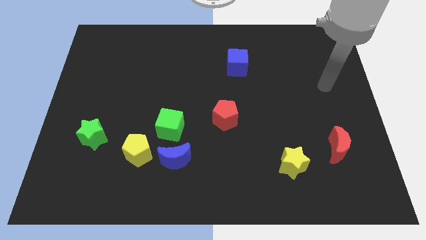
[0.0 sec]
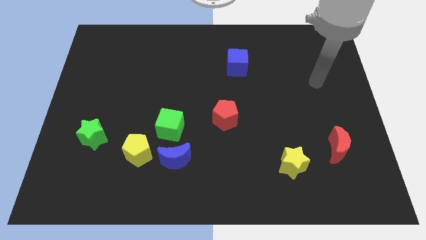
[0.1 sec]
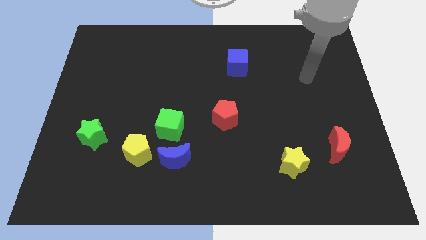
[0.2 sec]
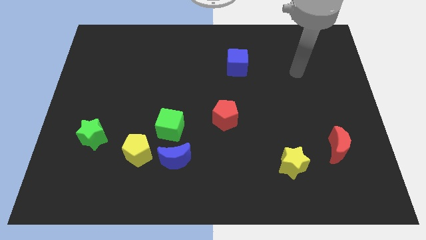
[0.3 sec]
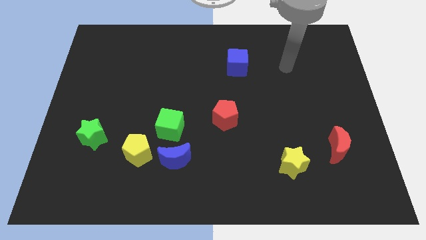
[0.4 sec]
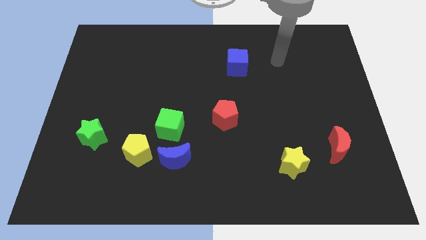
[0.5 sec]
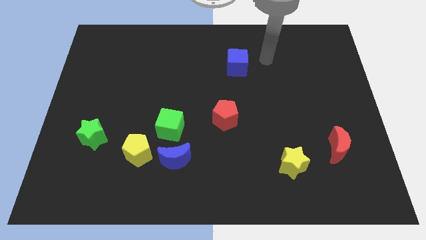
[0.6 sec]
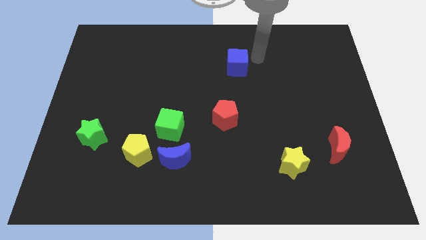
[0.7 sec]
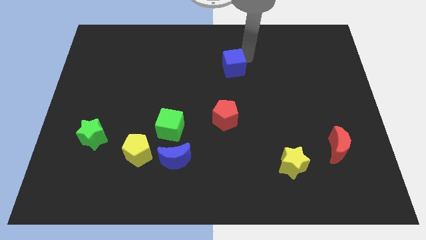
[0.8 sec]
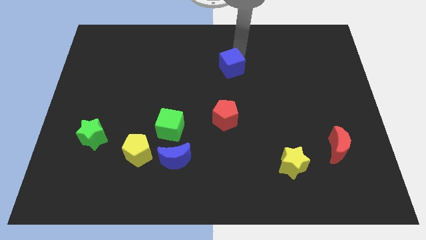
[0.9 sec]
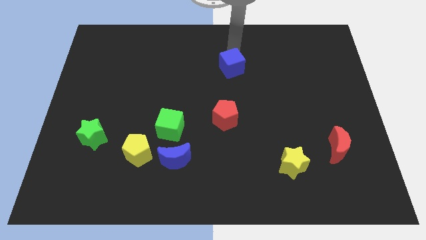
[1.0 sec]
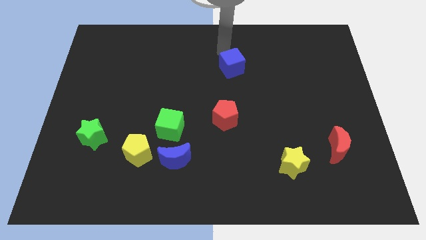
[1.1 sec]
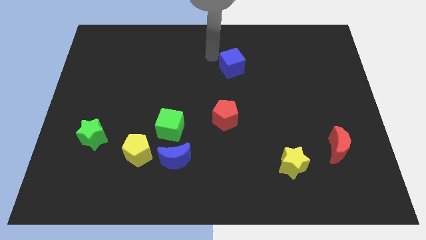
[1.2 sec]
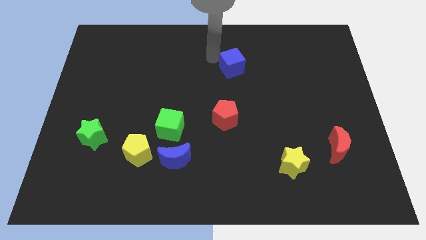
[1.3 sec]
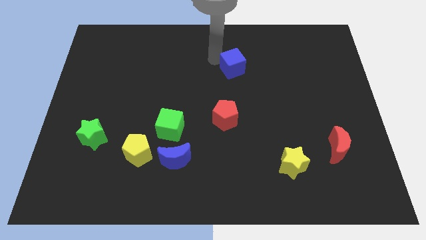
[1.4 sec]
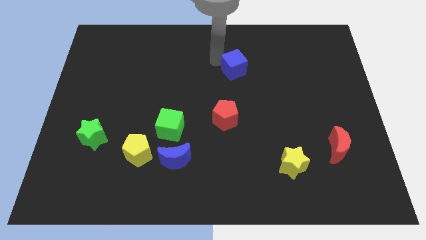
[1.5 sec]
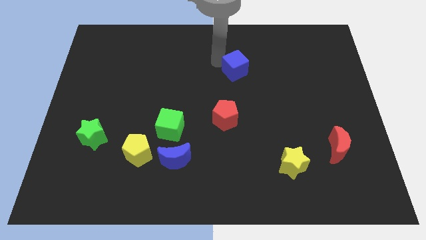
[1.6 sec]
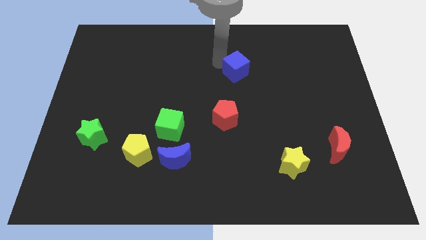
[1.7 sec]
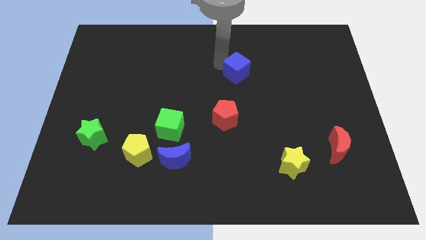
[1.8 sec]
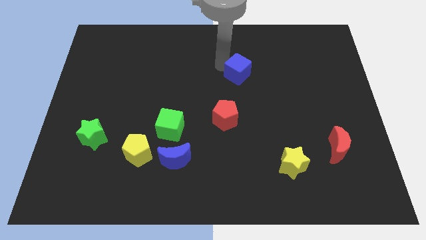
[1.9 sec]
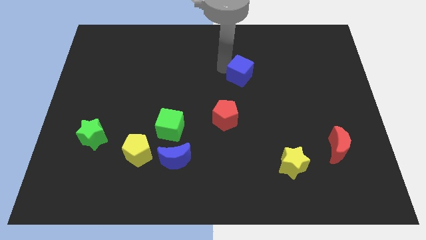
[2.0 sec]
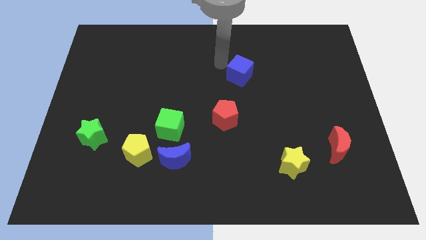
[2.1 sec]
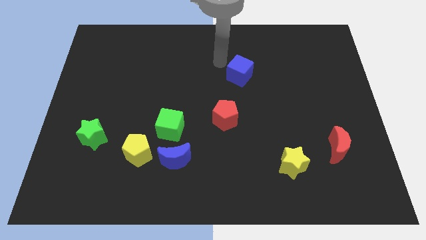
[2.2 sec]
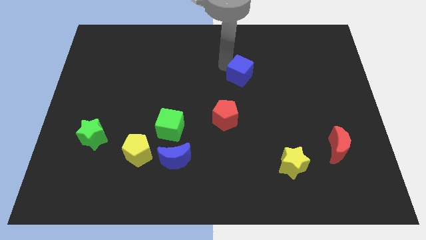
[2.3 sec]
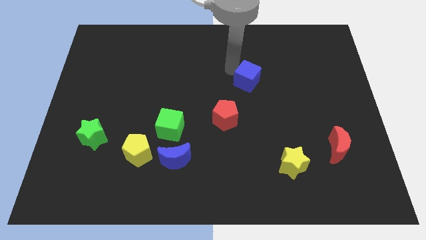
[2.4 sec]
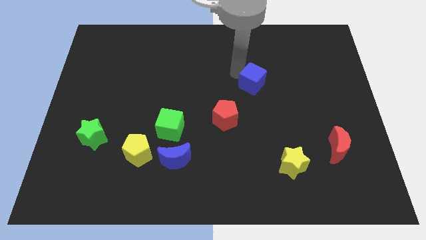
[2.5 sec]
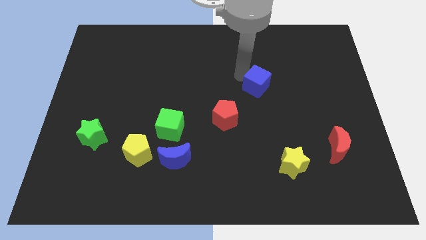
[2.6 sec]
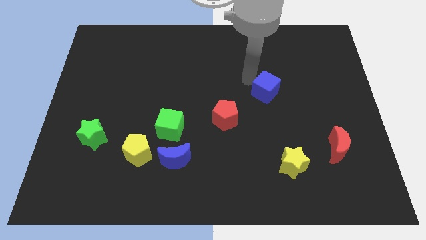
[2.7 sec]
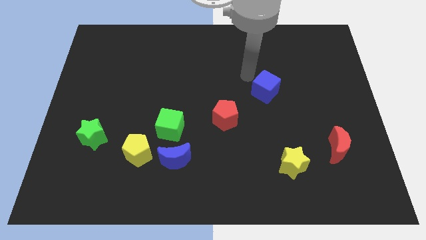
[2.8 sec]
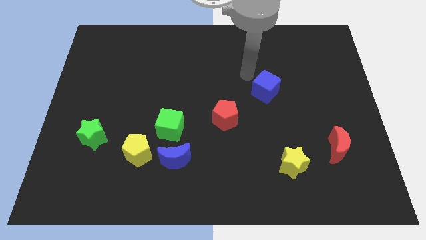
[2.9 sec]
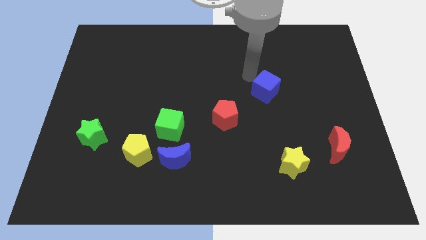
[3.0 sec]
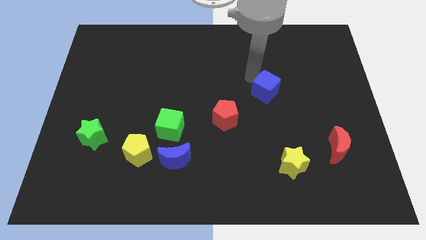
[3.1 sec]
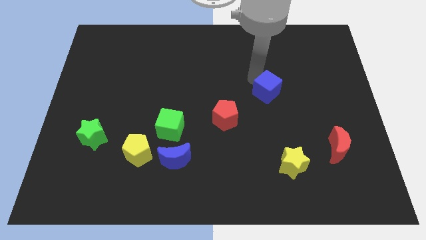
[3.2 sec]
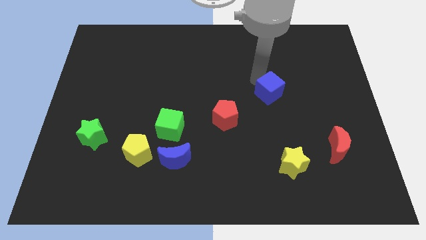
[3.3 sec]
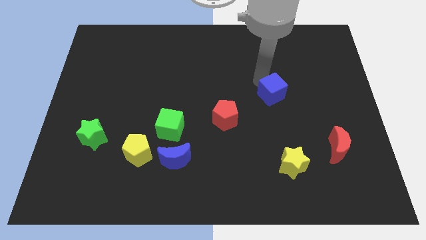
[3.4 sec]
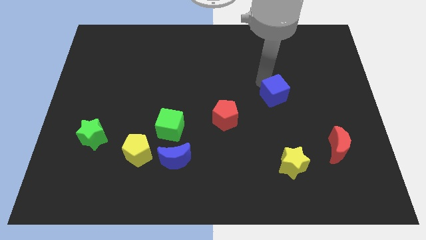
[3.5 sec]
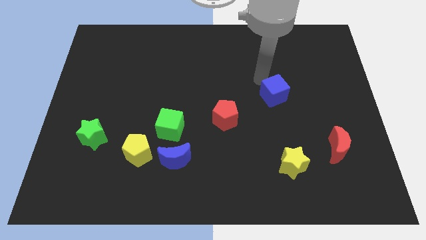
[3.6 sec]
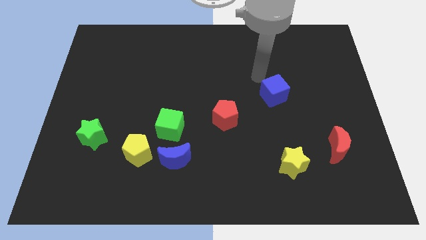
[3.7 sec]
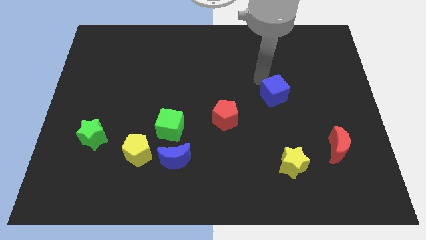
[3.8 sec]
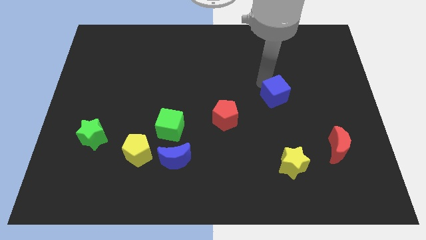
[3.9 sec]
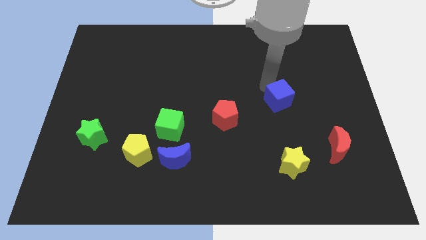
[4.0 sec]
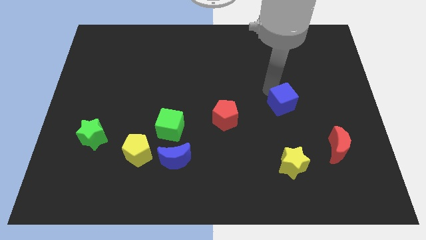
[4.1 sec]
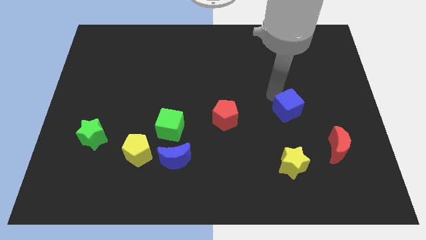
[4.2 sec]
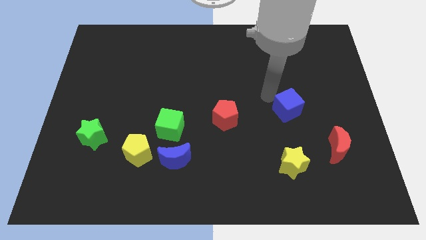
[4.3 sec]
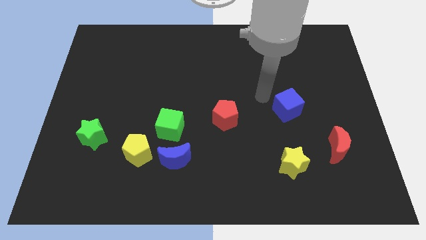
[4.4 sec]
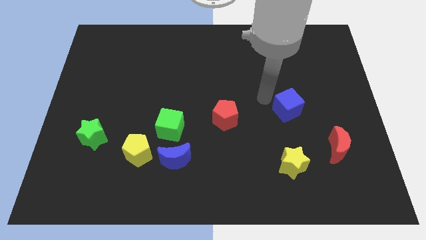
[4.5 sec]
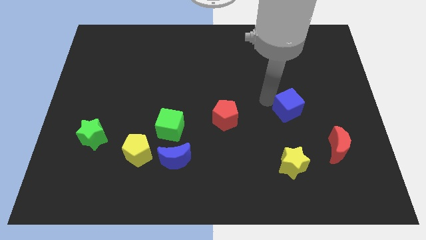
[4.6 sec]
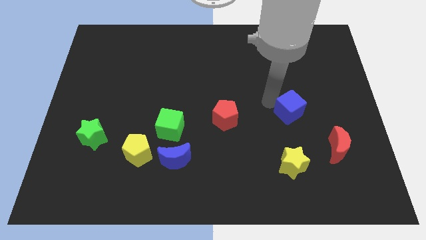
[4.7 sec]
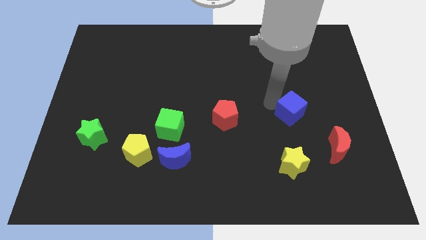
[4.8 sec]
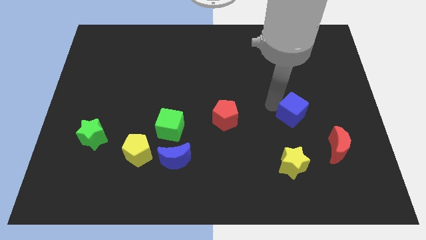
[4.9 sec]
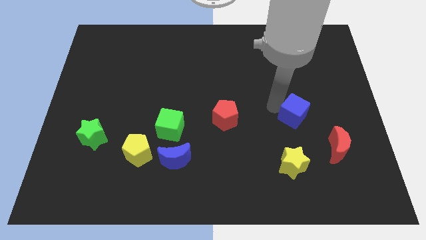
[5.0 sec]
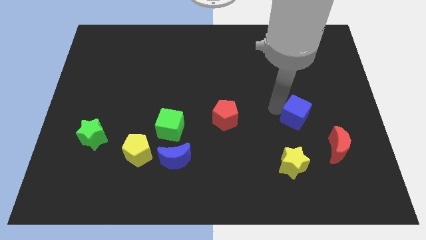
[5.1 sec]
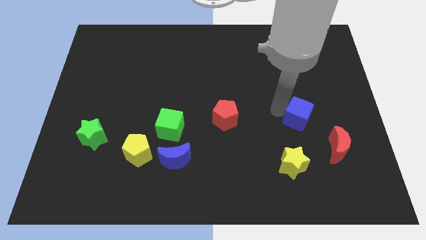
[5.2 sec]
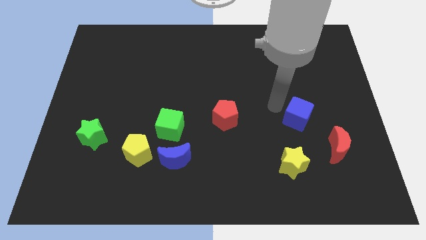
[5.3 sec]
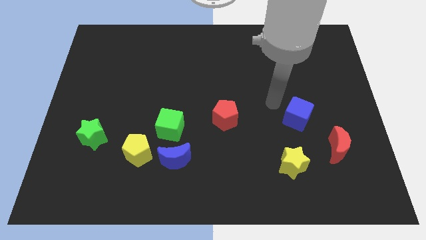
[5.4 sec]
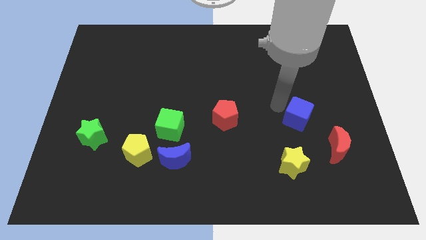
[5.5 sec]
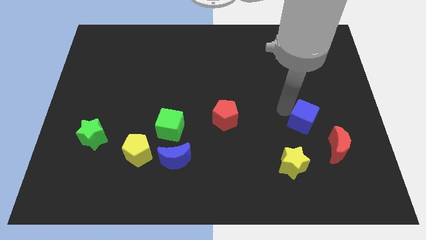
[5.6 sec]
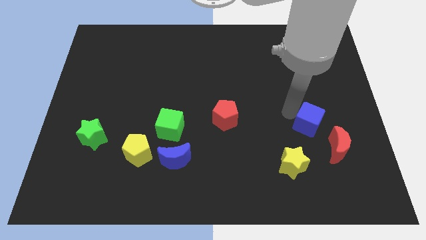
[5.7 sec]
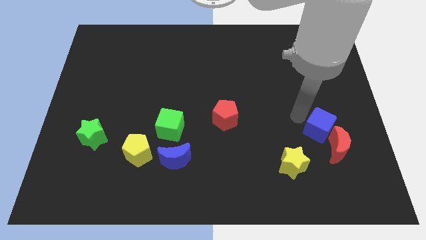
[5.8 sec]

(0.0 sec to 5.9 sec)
slide the blue cube close to the red moon

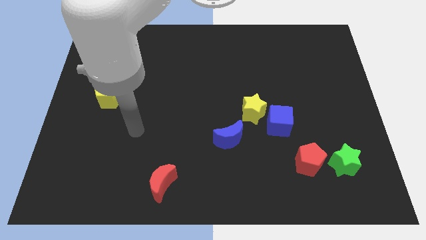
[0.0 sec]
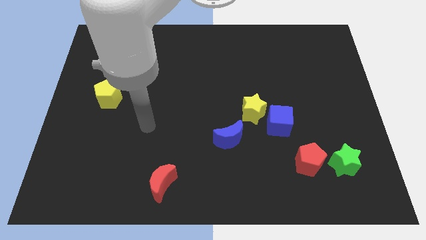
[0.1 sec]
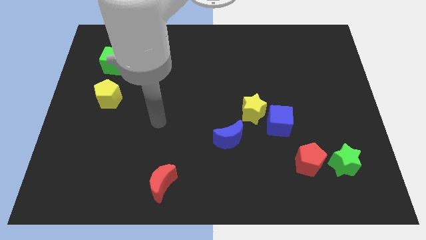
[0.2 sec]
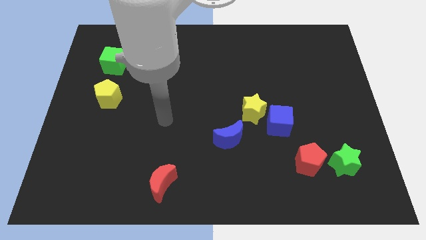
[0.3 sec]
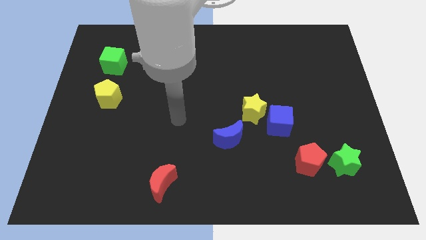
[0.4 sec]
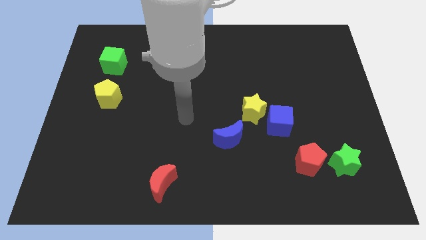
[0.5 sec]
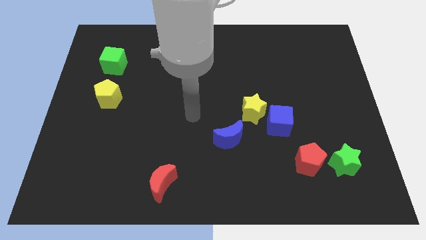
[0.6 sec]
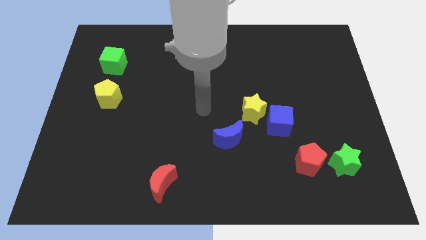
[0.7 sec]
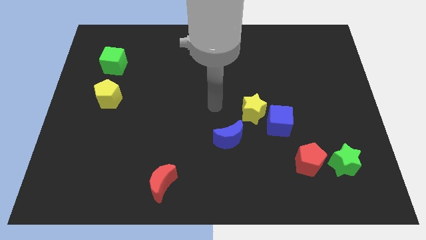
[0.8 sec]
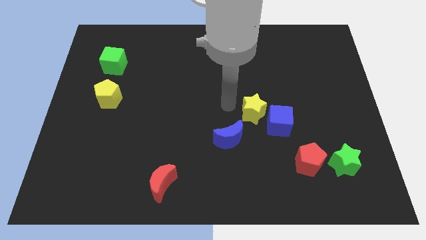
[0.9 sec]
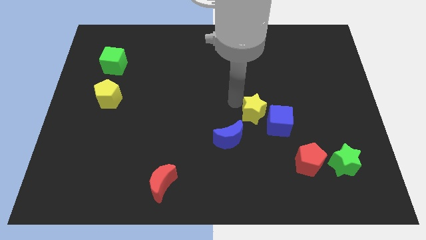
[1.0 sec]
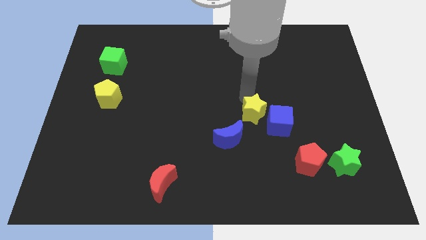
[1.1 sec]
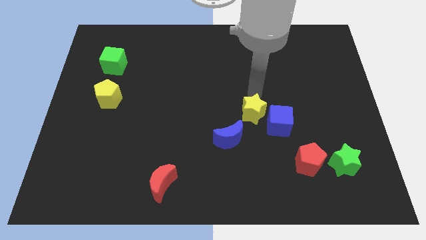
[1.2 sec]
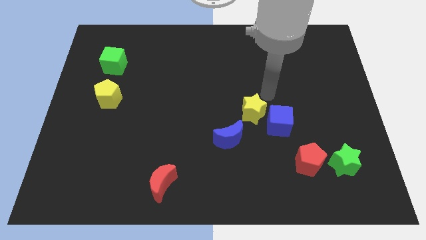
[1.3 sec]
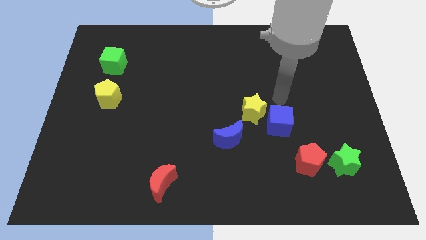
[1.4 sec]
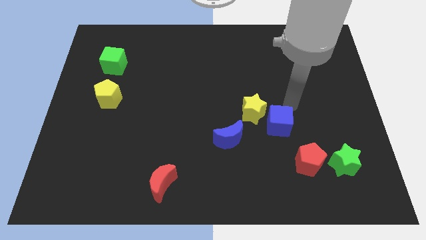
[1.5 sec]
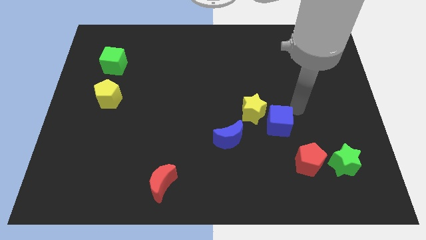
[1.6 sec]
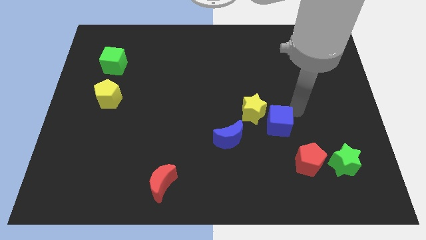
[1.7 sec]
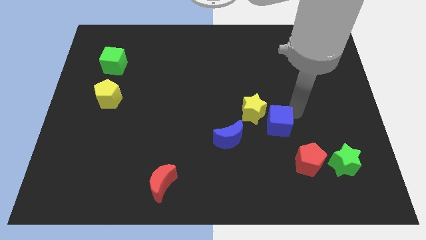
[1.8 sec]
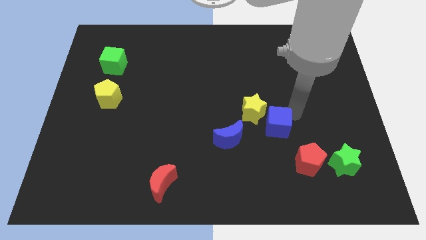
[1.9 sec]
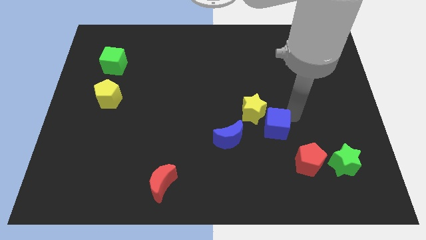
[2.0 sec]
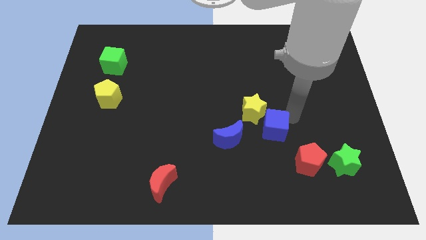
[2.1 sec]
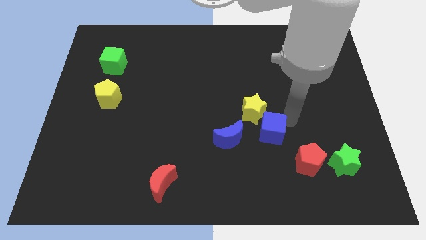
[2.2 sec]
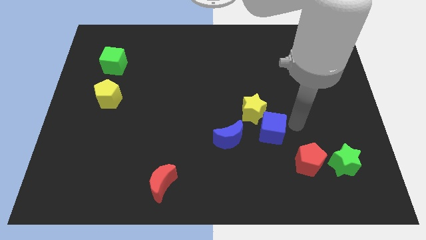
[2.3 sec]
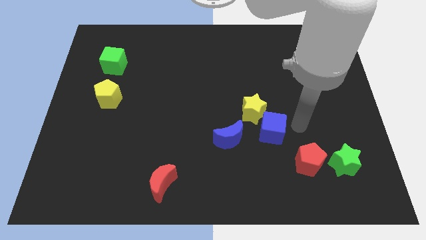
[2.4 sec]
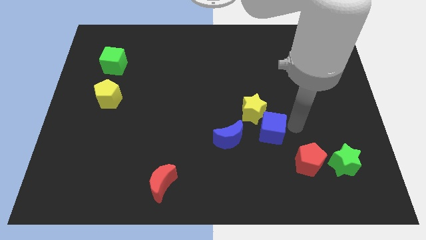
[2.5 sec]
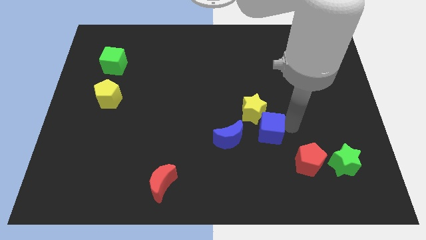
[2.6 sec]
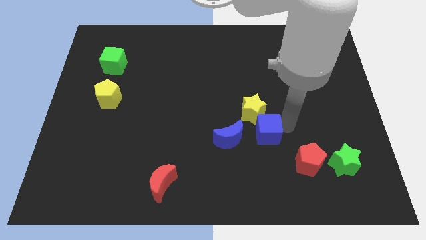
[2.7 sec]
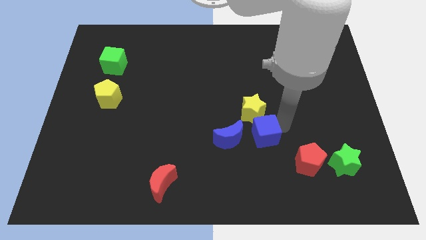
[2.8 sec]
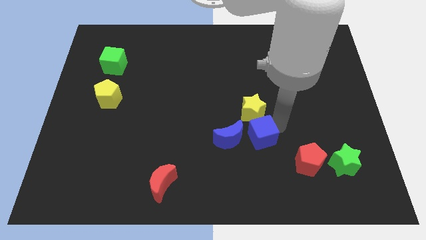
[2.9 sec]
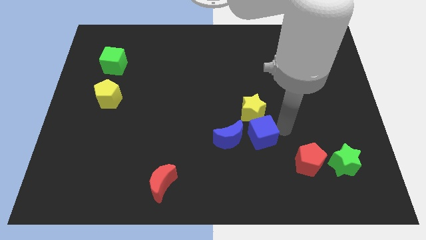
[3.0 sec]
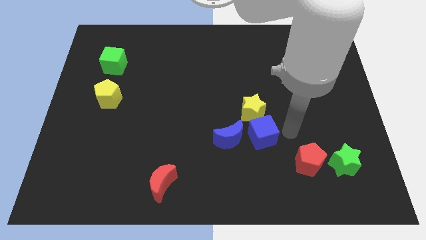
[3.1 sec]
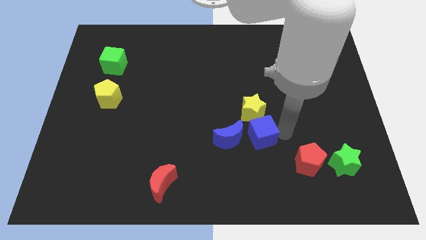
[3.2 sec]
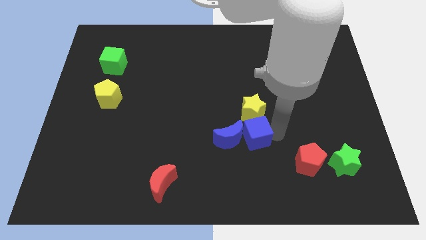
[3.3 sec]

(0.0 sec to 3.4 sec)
put the blue cube towards the blue moon
